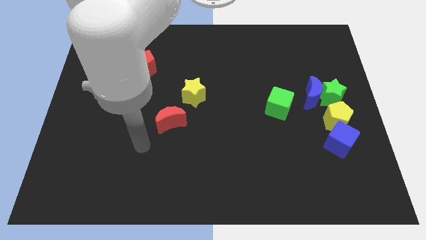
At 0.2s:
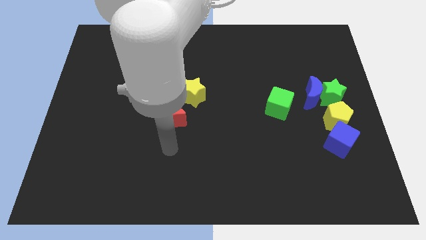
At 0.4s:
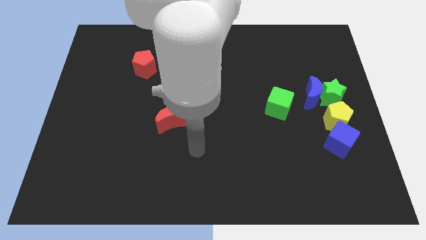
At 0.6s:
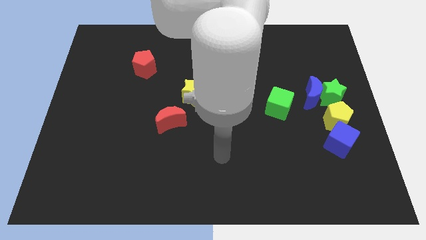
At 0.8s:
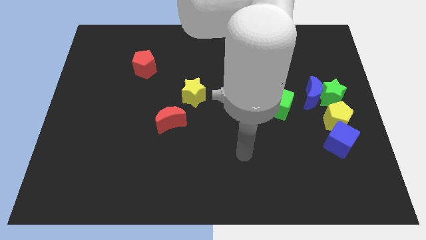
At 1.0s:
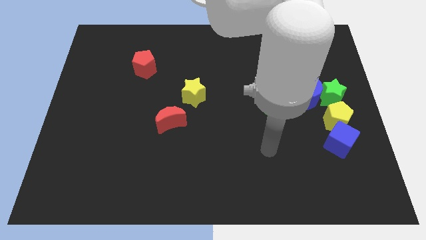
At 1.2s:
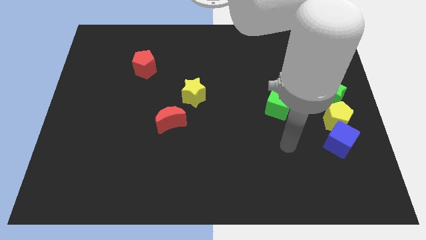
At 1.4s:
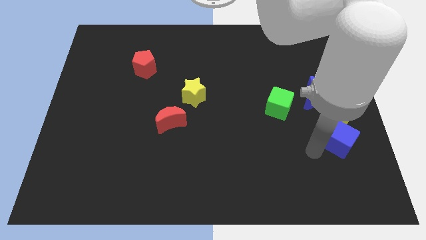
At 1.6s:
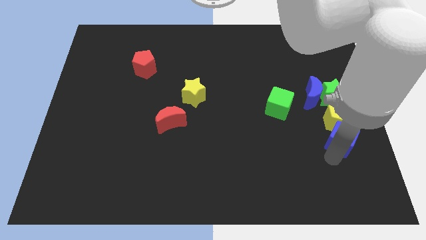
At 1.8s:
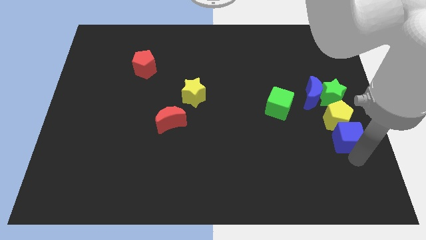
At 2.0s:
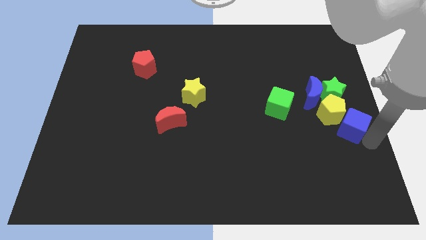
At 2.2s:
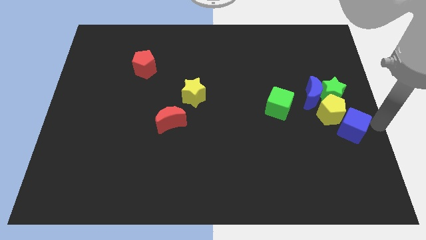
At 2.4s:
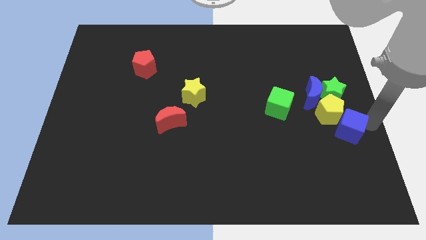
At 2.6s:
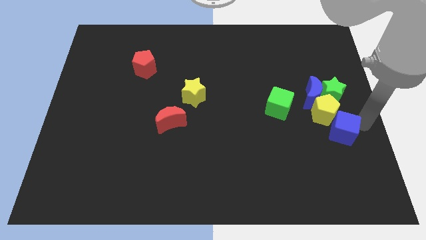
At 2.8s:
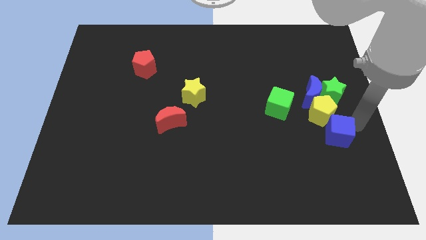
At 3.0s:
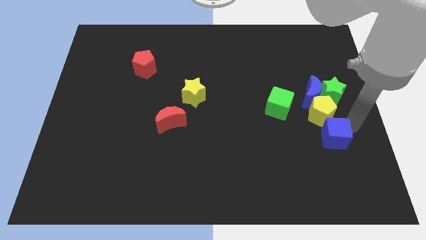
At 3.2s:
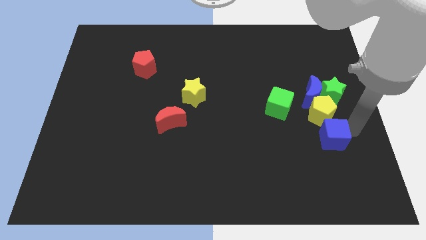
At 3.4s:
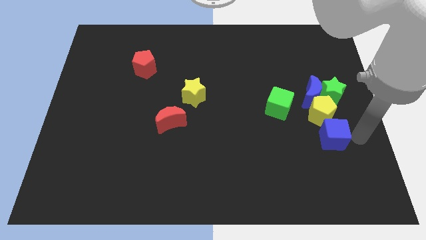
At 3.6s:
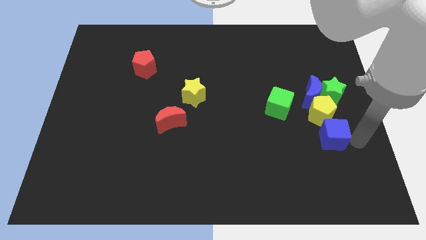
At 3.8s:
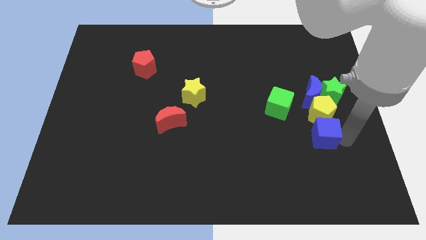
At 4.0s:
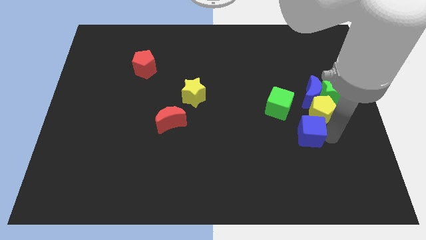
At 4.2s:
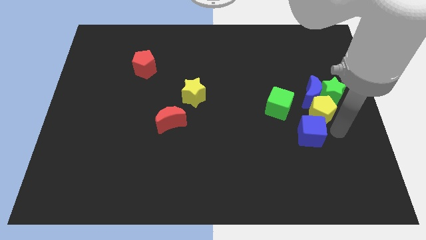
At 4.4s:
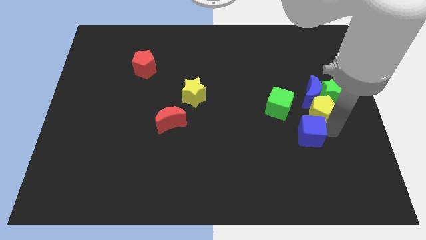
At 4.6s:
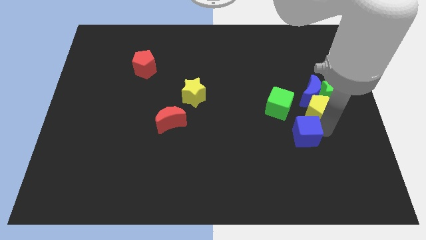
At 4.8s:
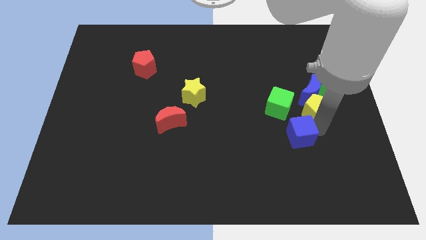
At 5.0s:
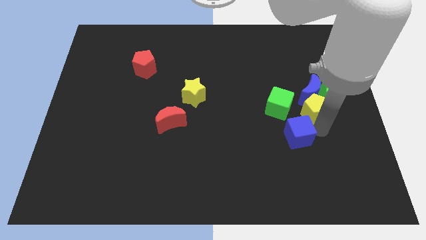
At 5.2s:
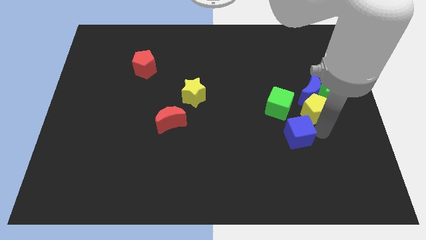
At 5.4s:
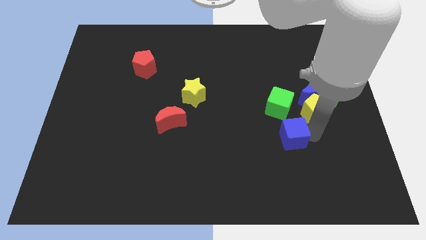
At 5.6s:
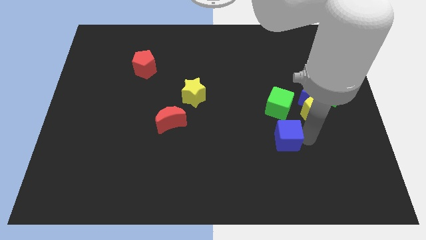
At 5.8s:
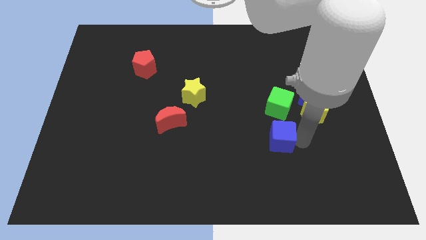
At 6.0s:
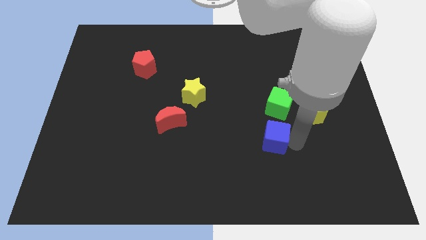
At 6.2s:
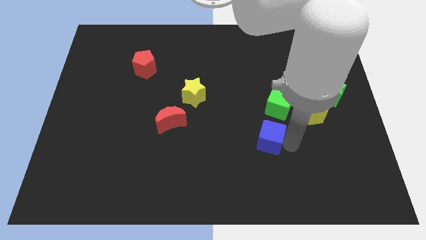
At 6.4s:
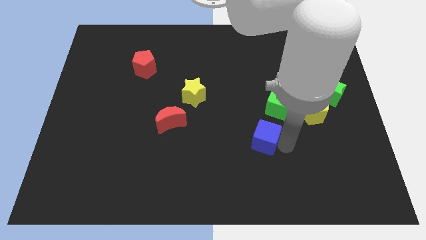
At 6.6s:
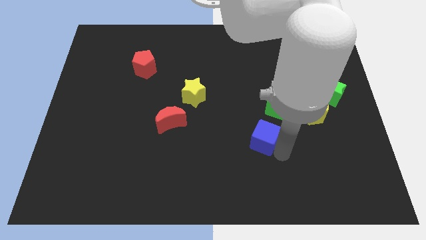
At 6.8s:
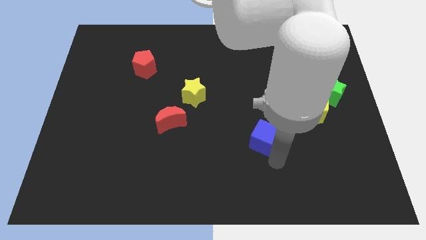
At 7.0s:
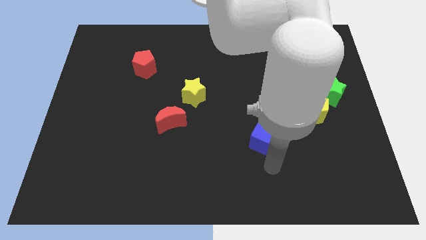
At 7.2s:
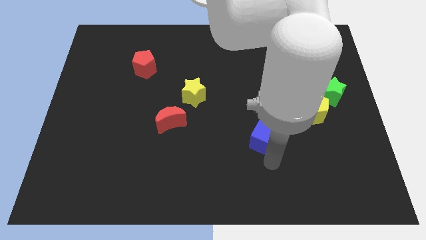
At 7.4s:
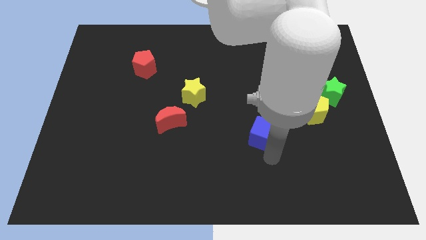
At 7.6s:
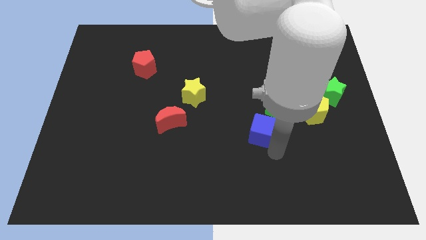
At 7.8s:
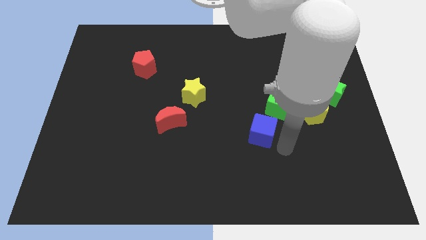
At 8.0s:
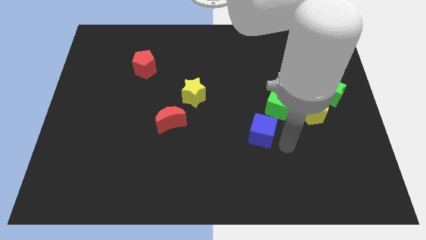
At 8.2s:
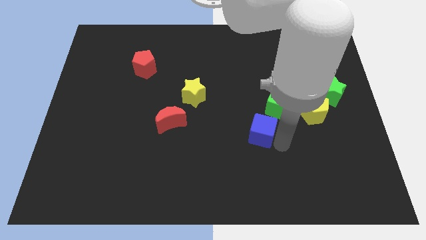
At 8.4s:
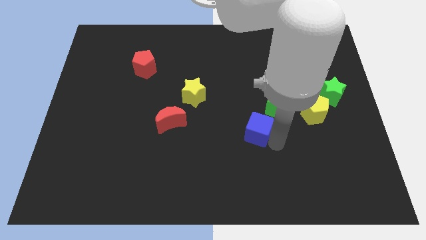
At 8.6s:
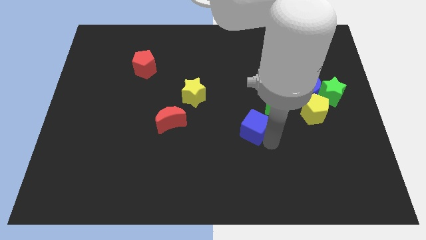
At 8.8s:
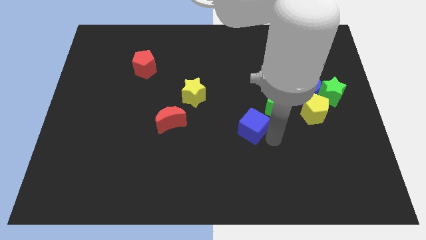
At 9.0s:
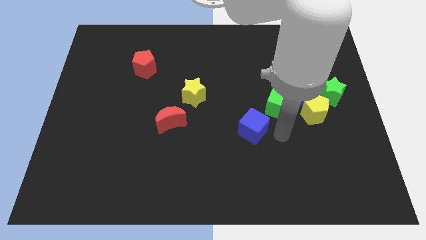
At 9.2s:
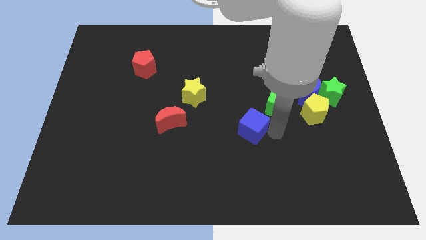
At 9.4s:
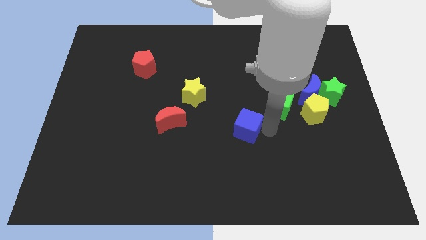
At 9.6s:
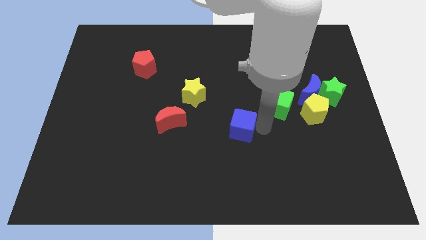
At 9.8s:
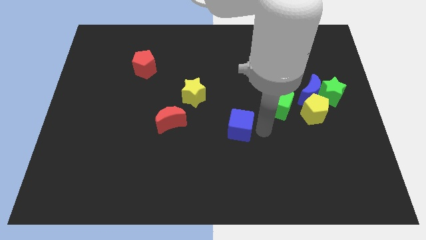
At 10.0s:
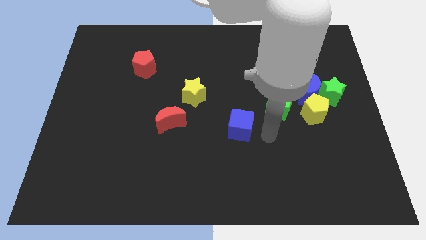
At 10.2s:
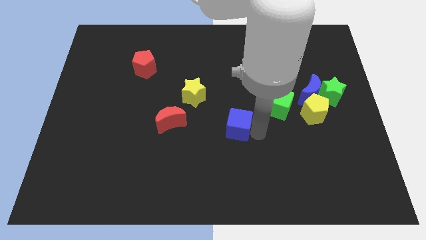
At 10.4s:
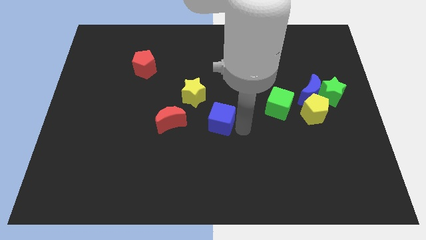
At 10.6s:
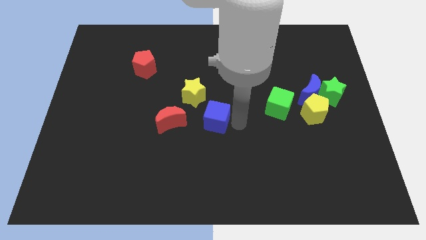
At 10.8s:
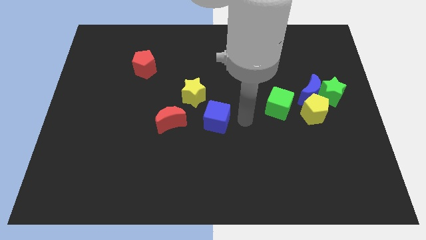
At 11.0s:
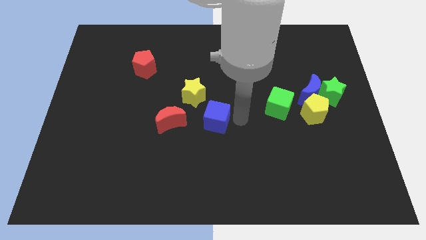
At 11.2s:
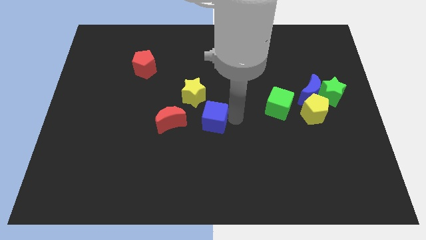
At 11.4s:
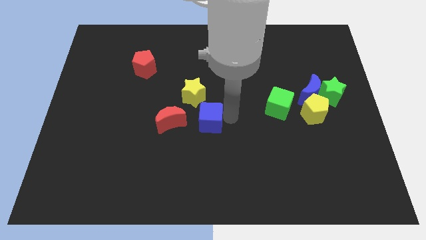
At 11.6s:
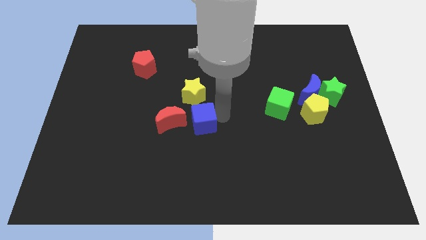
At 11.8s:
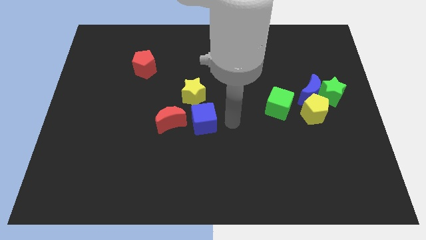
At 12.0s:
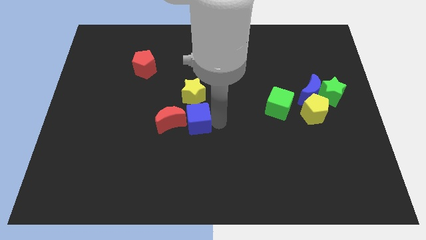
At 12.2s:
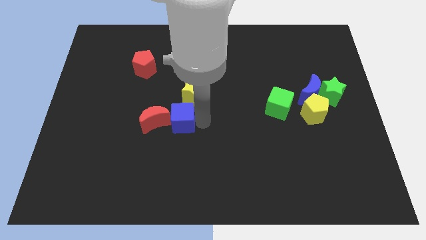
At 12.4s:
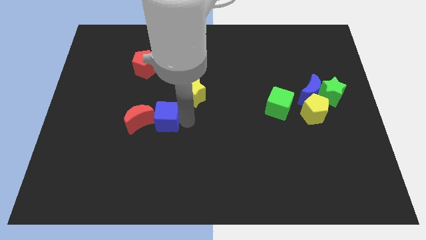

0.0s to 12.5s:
move the blue cube close to the red moon

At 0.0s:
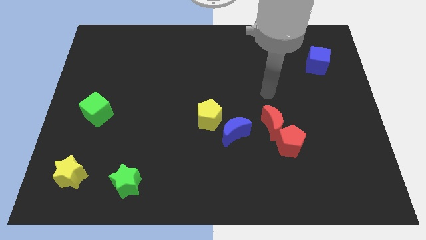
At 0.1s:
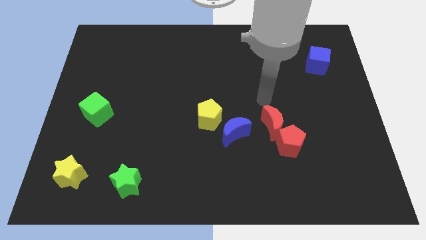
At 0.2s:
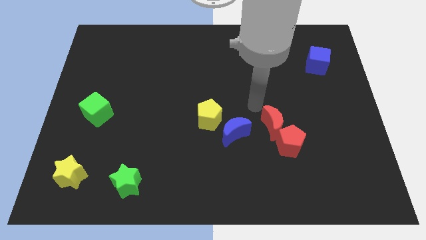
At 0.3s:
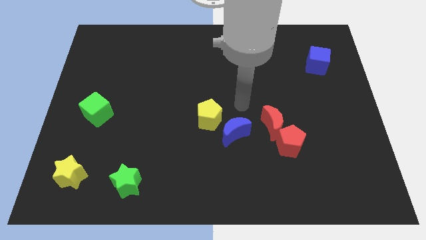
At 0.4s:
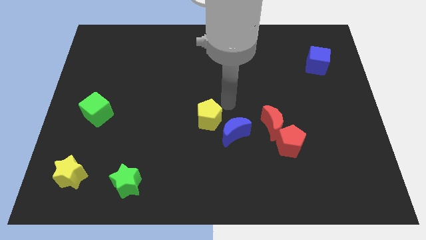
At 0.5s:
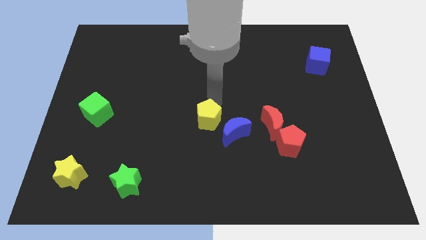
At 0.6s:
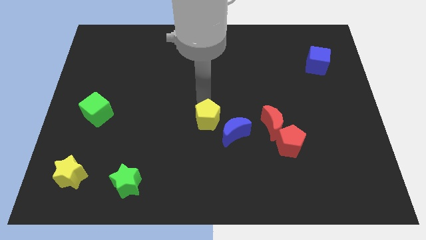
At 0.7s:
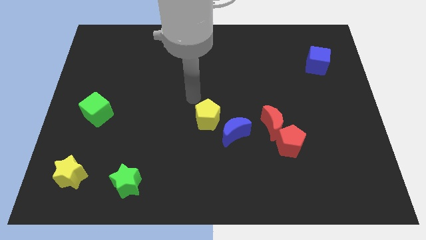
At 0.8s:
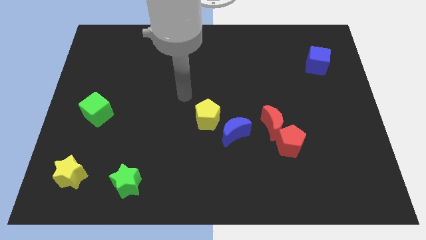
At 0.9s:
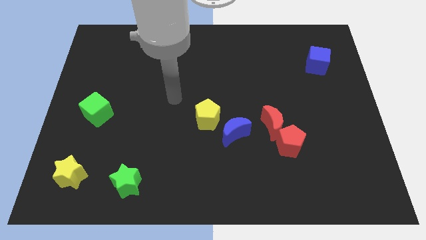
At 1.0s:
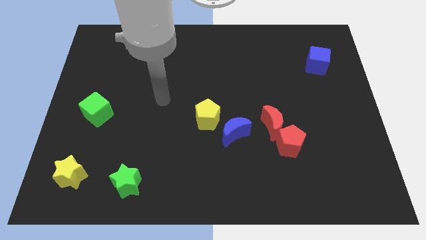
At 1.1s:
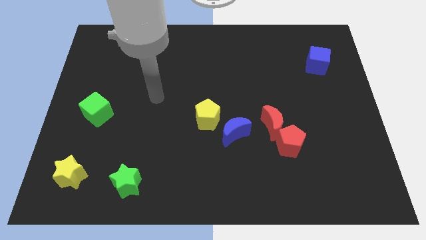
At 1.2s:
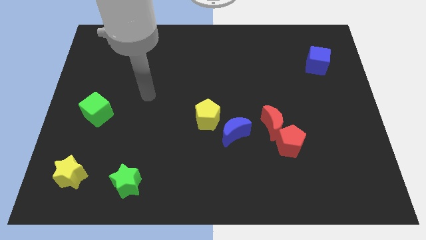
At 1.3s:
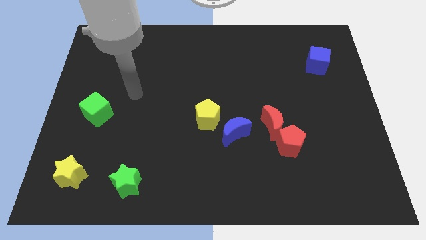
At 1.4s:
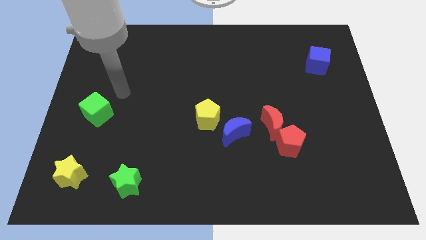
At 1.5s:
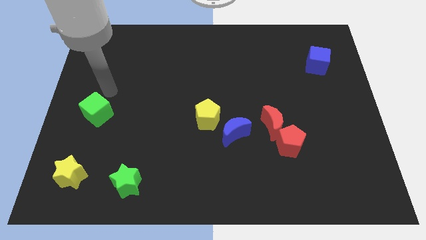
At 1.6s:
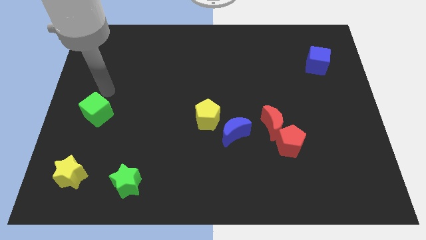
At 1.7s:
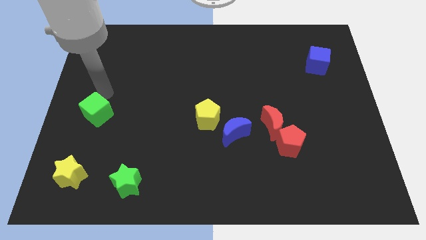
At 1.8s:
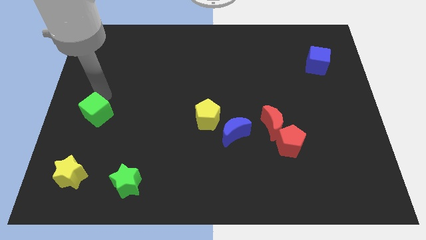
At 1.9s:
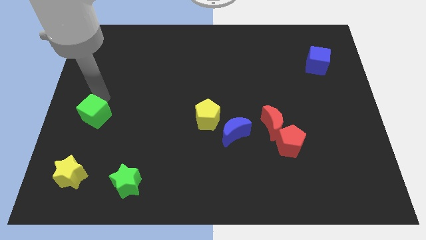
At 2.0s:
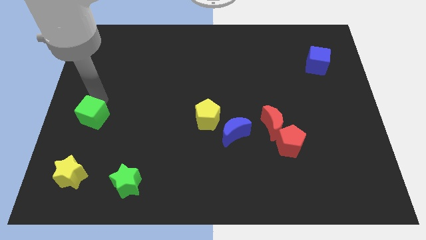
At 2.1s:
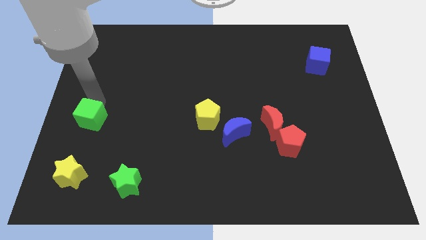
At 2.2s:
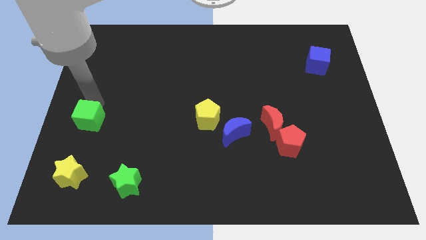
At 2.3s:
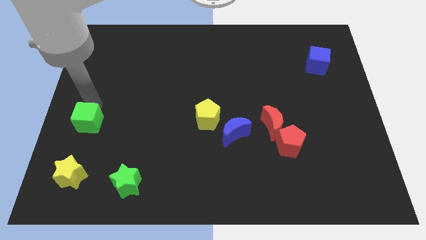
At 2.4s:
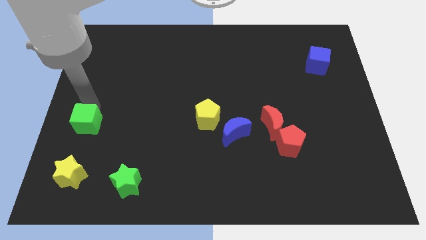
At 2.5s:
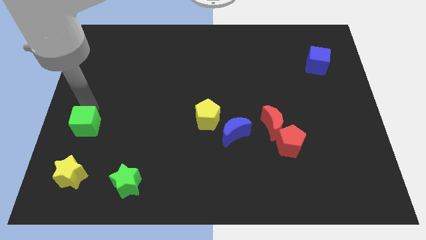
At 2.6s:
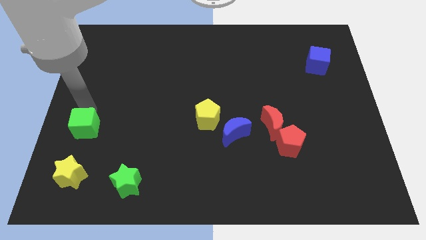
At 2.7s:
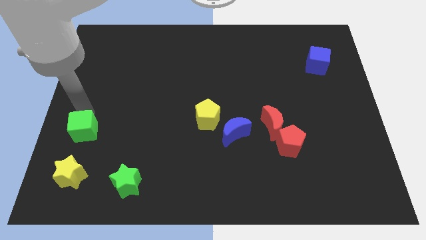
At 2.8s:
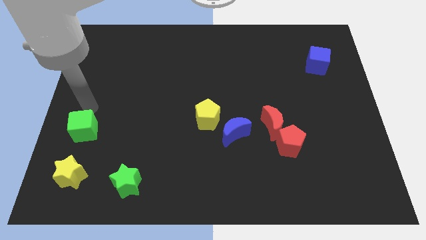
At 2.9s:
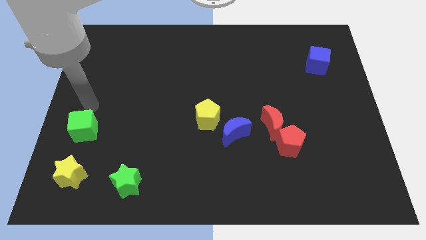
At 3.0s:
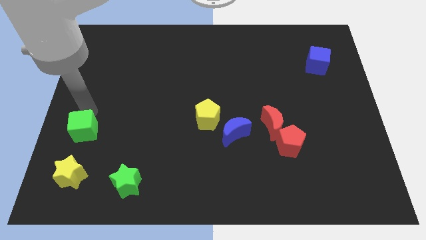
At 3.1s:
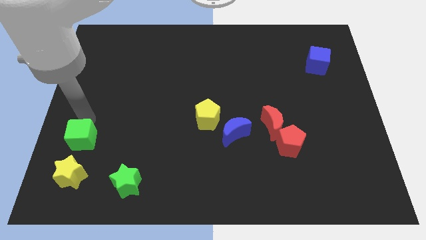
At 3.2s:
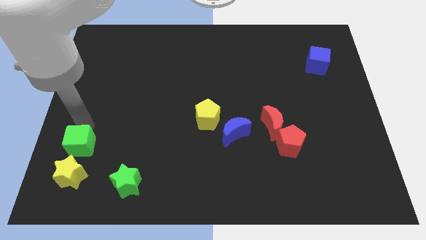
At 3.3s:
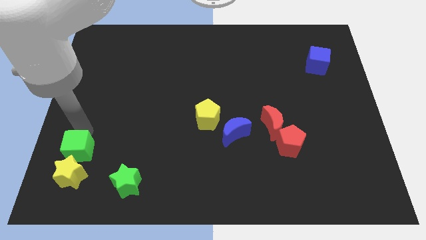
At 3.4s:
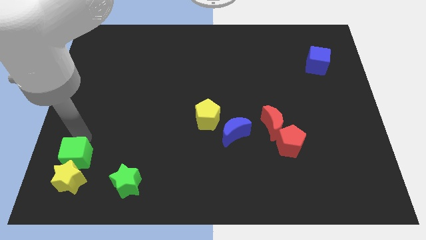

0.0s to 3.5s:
move the green cube next to the yellow star
